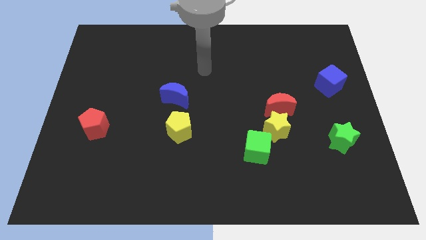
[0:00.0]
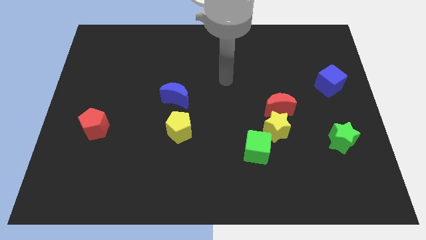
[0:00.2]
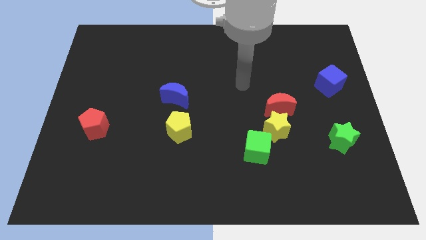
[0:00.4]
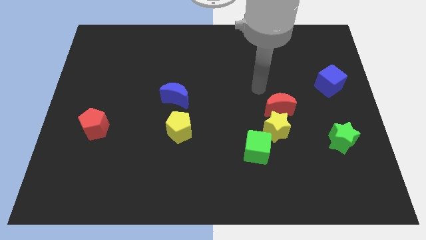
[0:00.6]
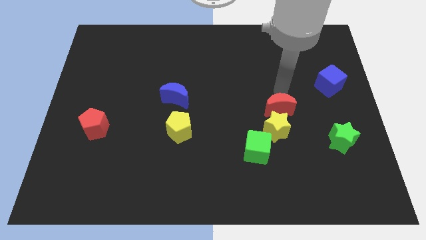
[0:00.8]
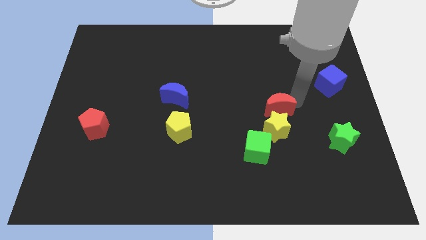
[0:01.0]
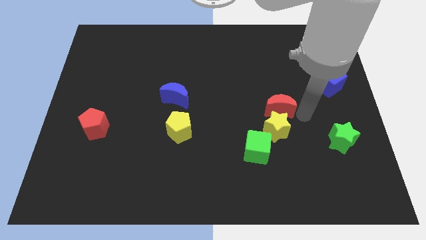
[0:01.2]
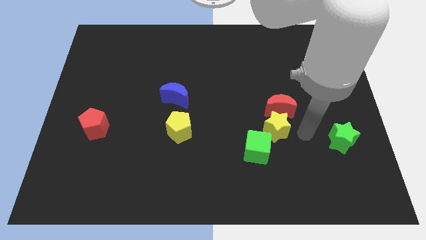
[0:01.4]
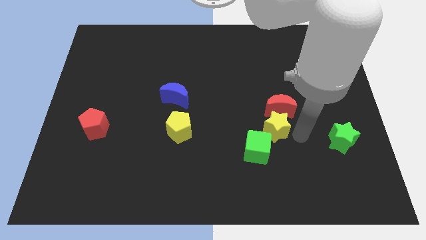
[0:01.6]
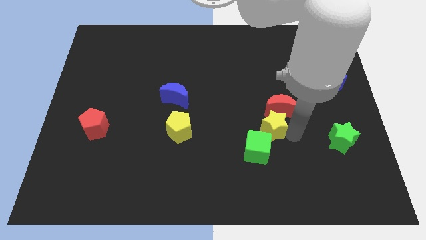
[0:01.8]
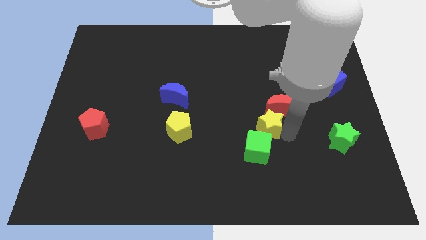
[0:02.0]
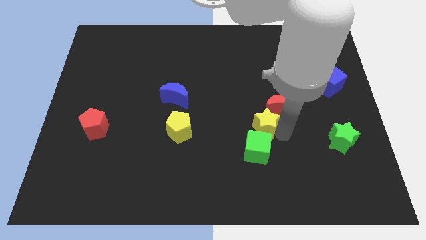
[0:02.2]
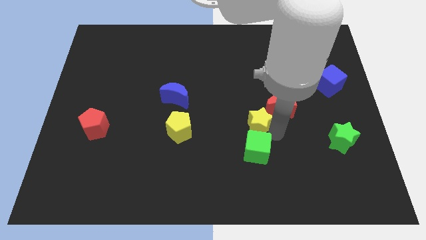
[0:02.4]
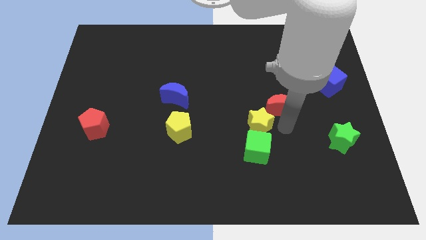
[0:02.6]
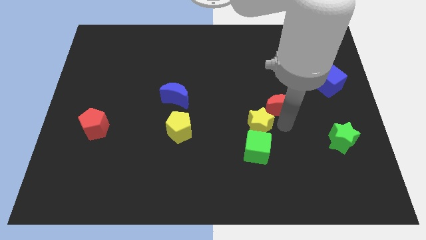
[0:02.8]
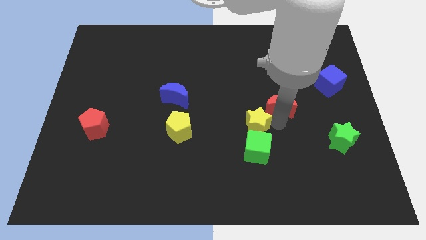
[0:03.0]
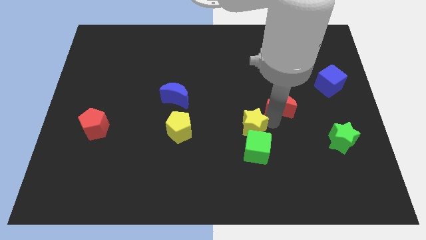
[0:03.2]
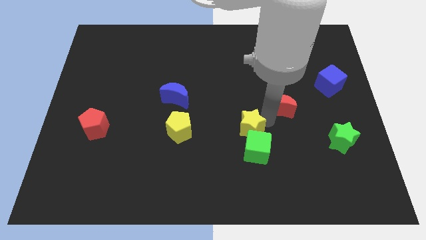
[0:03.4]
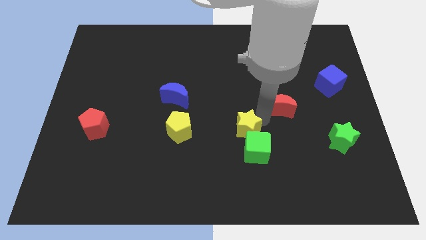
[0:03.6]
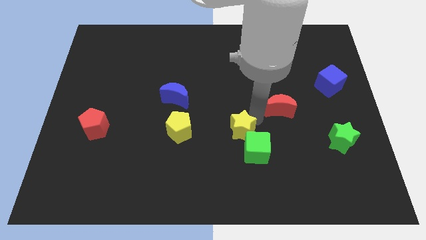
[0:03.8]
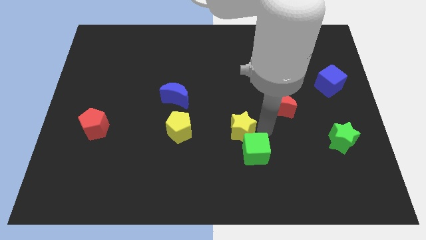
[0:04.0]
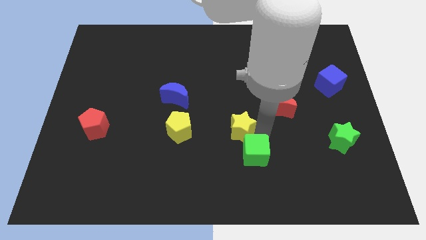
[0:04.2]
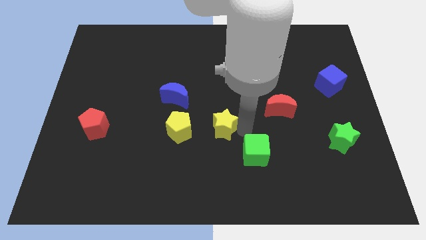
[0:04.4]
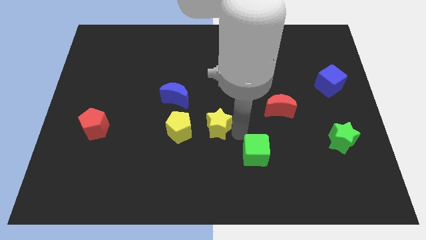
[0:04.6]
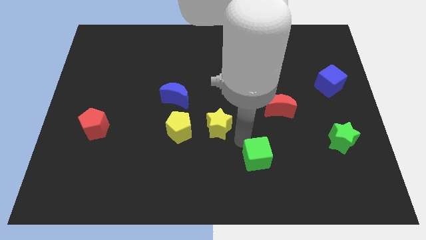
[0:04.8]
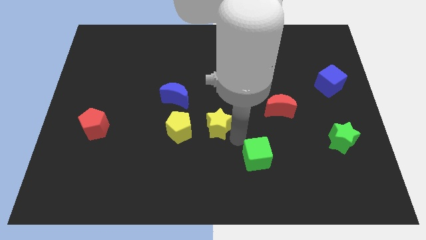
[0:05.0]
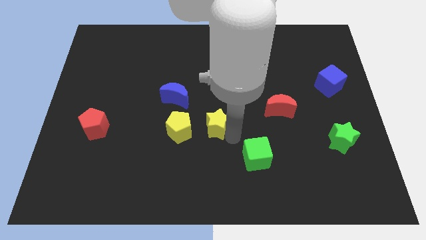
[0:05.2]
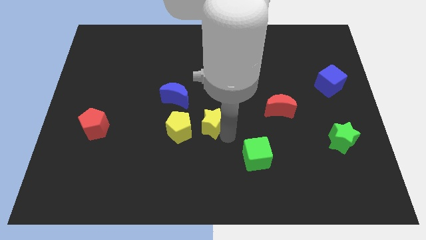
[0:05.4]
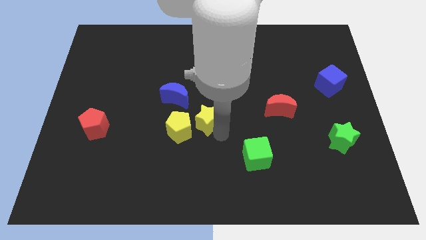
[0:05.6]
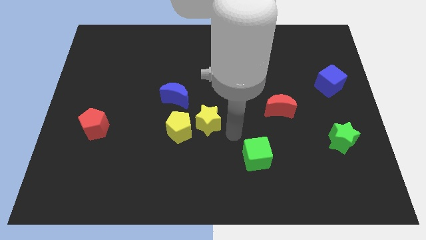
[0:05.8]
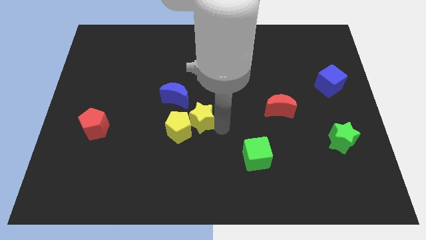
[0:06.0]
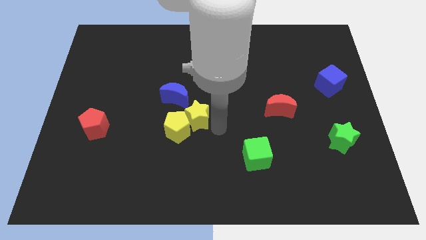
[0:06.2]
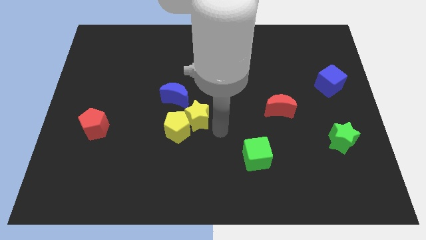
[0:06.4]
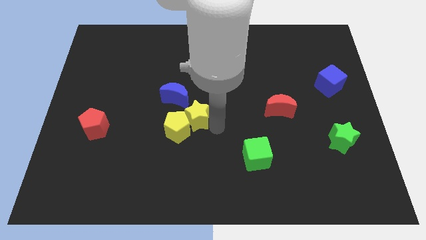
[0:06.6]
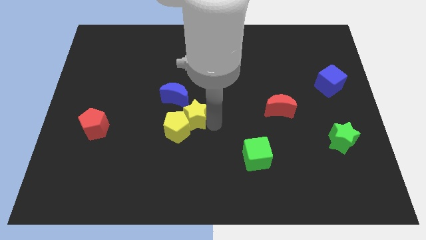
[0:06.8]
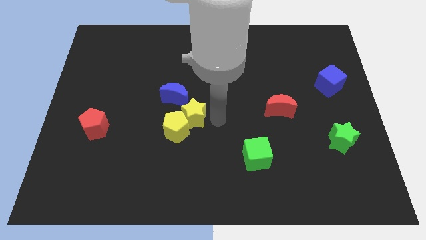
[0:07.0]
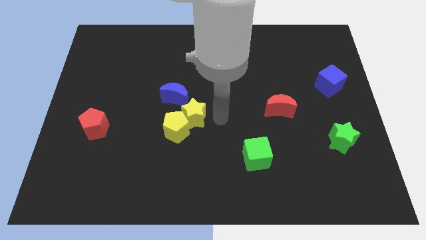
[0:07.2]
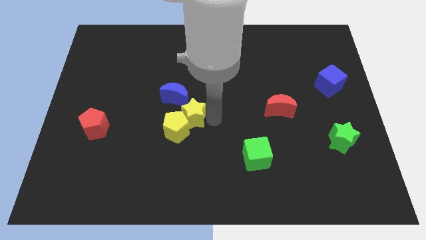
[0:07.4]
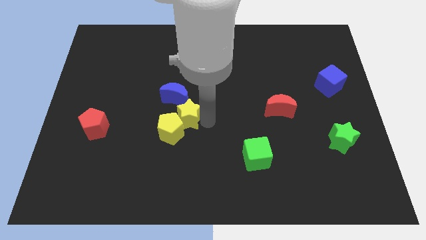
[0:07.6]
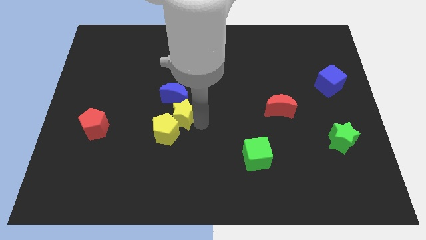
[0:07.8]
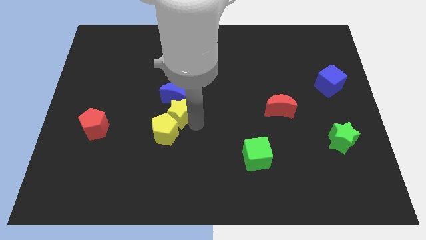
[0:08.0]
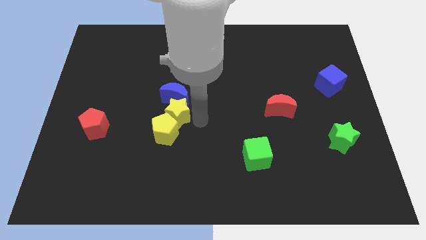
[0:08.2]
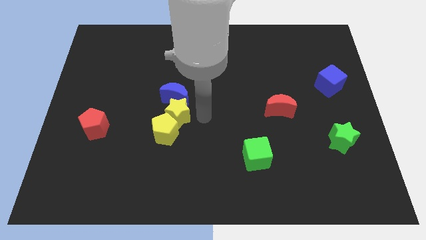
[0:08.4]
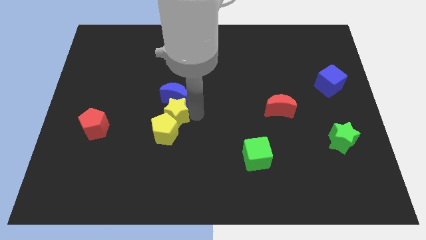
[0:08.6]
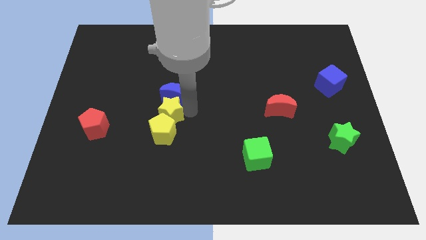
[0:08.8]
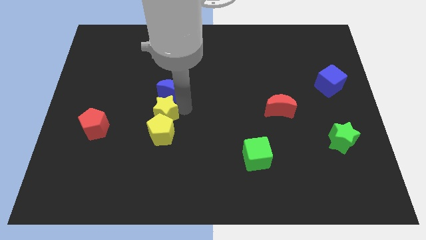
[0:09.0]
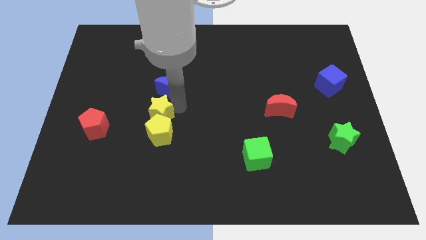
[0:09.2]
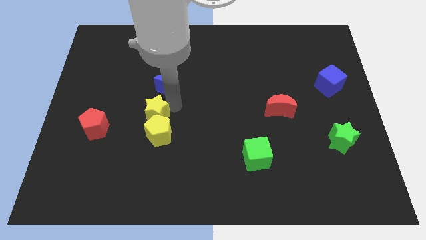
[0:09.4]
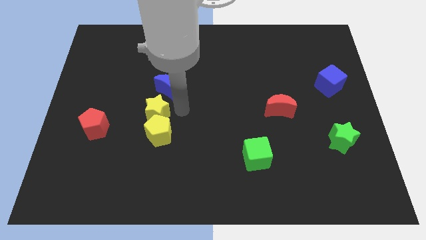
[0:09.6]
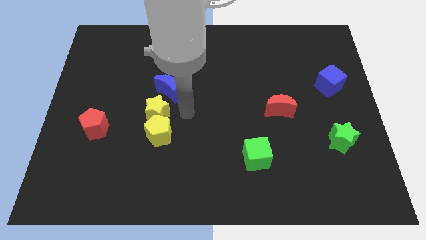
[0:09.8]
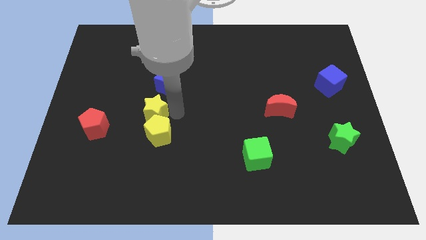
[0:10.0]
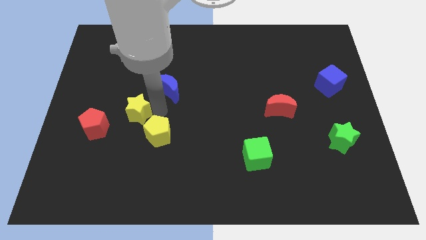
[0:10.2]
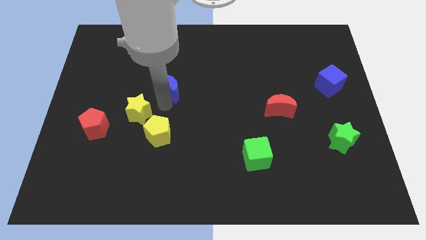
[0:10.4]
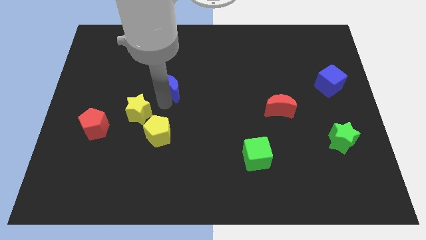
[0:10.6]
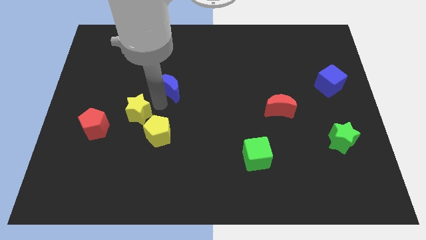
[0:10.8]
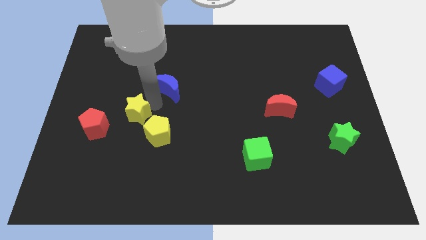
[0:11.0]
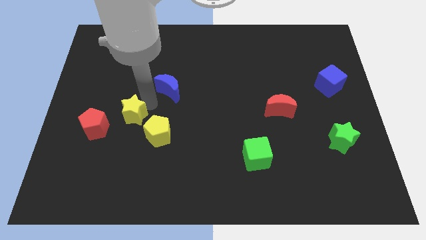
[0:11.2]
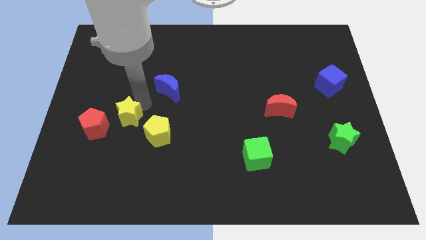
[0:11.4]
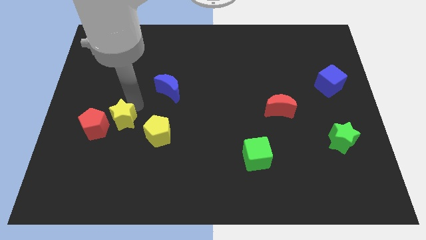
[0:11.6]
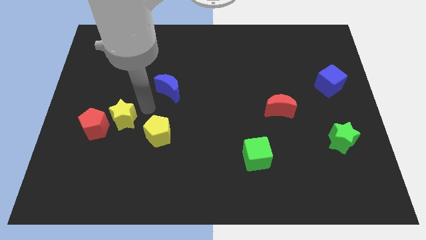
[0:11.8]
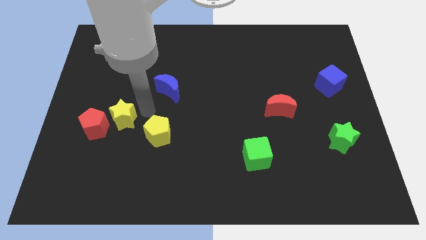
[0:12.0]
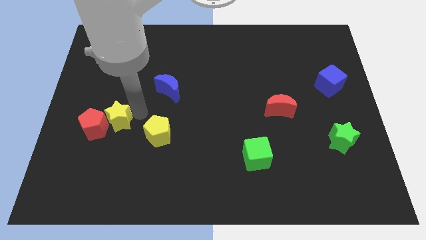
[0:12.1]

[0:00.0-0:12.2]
push the yellow star next to the red pentagon

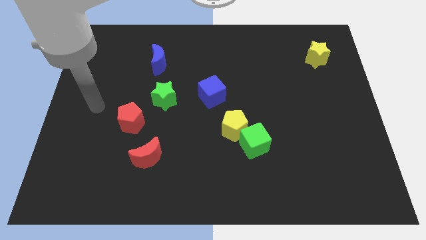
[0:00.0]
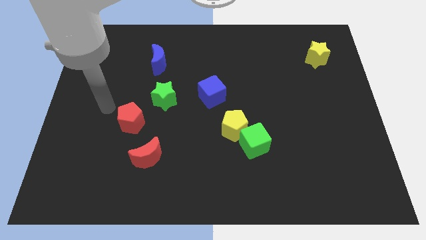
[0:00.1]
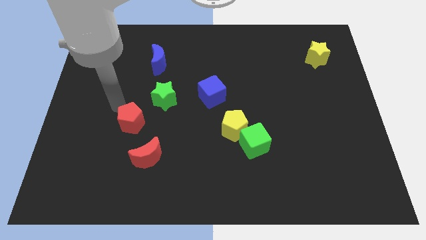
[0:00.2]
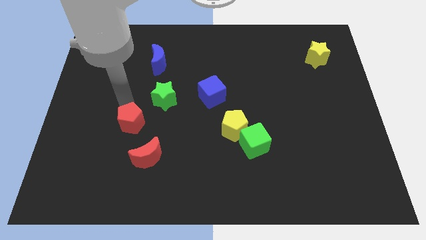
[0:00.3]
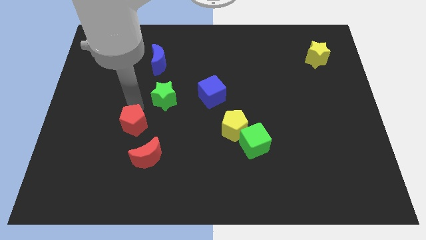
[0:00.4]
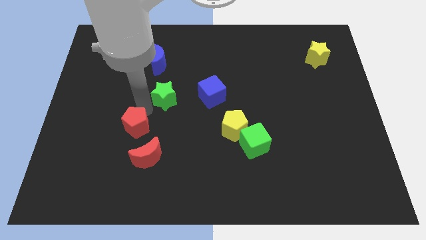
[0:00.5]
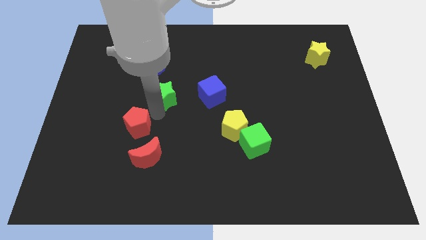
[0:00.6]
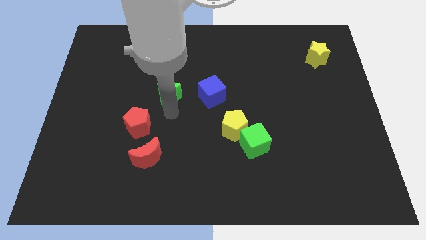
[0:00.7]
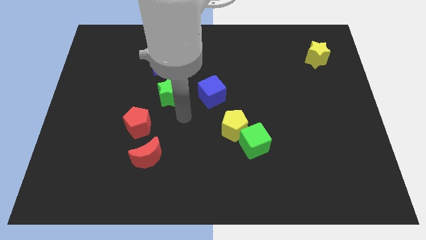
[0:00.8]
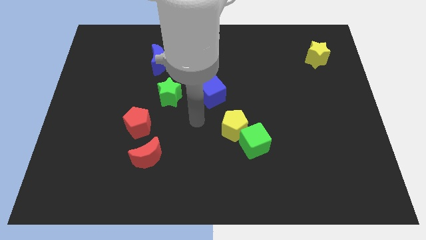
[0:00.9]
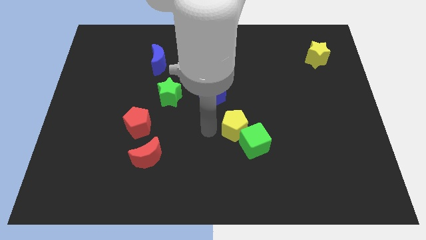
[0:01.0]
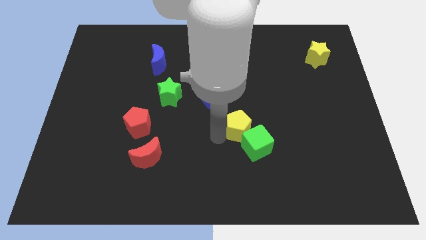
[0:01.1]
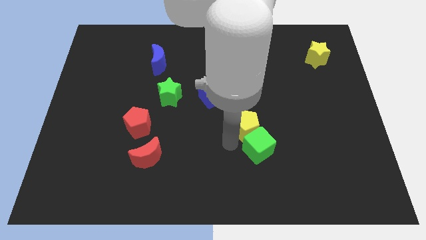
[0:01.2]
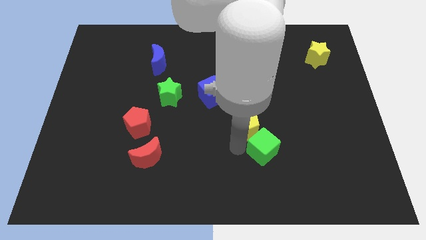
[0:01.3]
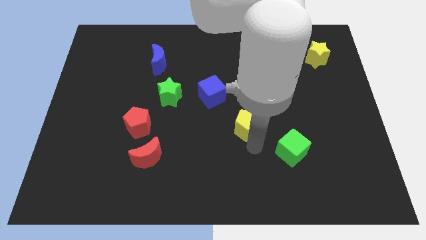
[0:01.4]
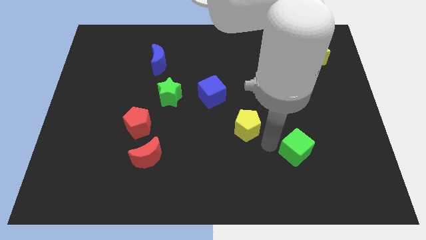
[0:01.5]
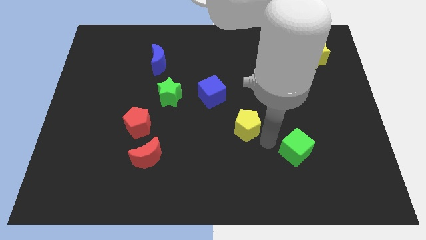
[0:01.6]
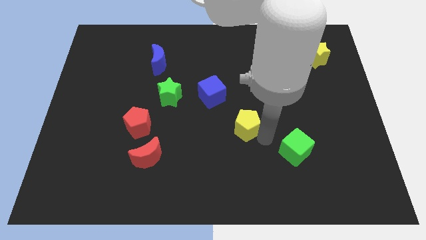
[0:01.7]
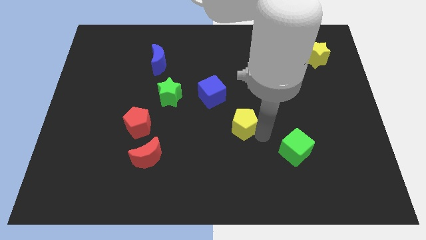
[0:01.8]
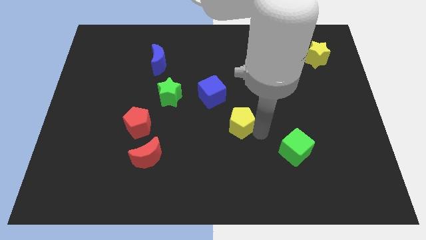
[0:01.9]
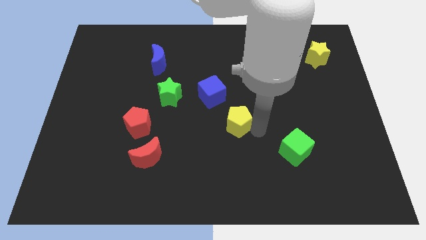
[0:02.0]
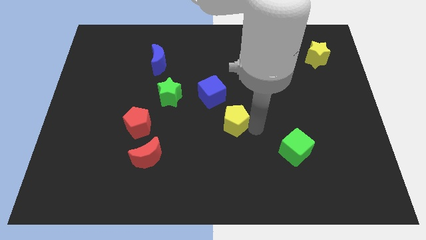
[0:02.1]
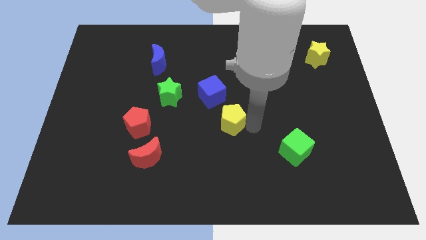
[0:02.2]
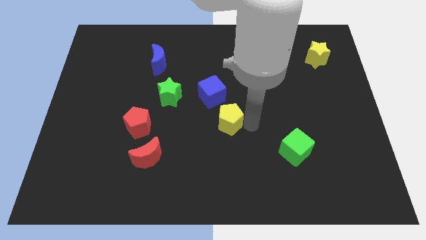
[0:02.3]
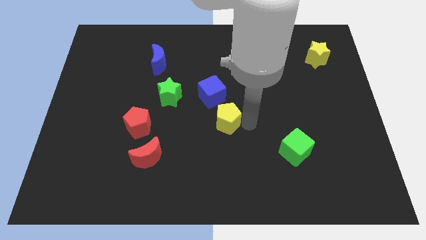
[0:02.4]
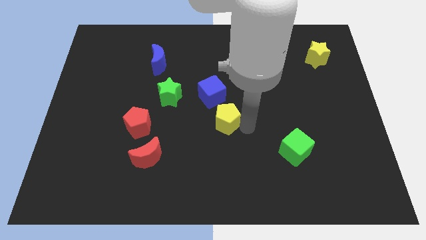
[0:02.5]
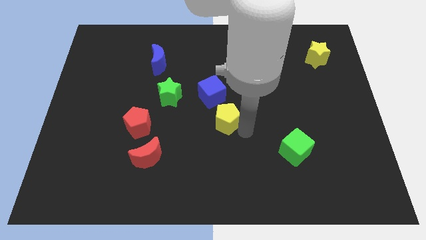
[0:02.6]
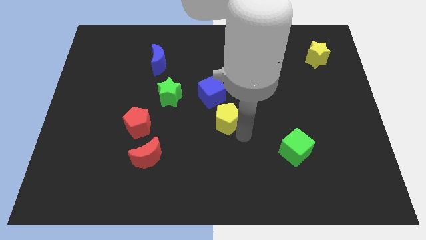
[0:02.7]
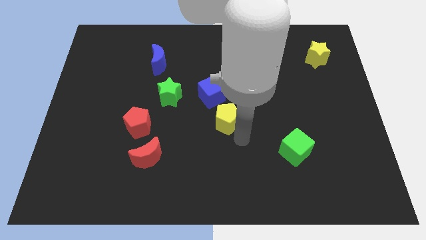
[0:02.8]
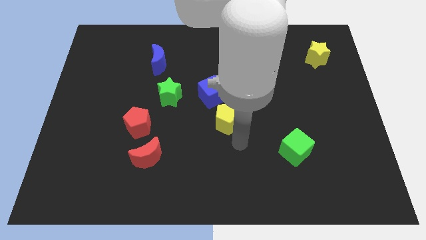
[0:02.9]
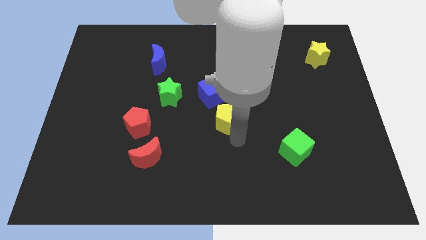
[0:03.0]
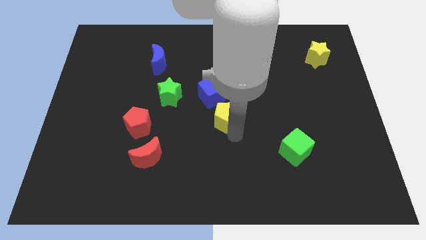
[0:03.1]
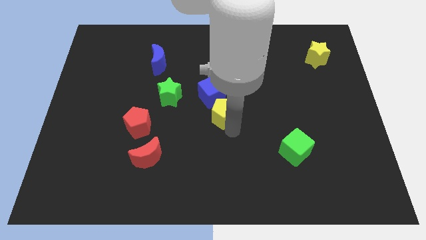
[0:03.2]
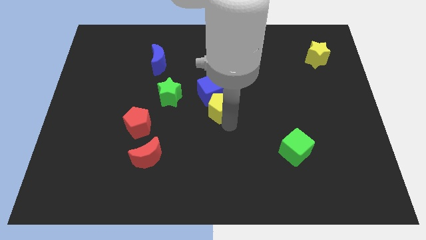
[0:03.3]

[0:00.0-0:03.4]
push the yellow pentagon to the blue cube
